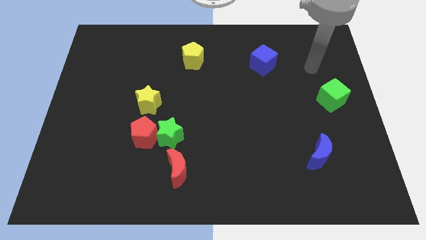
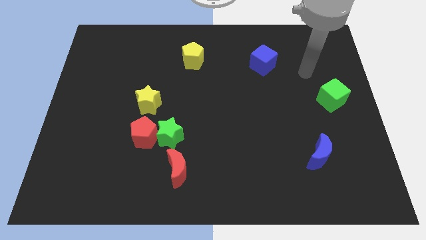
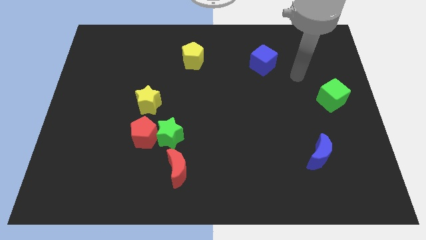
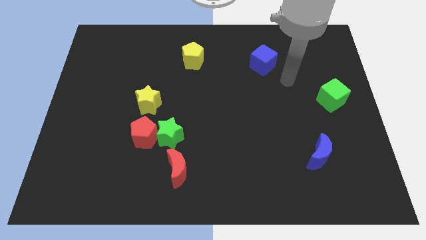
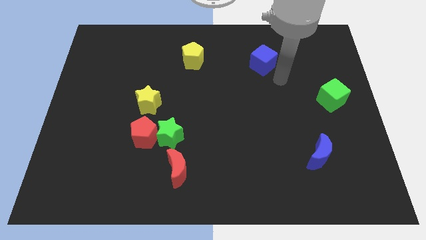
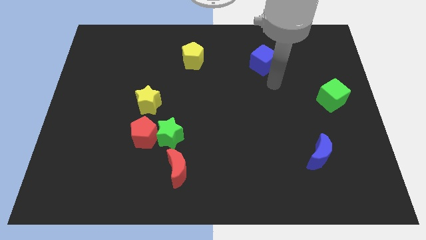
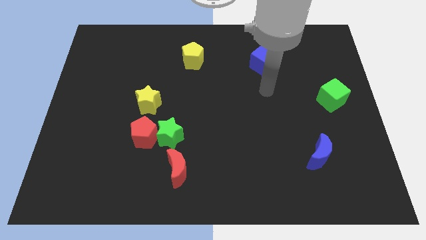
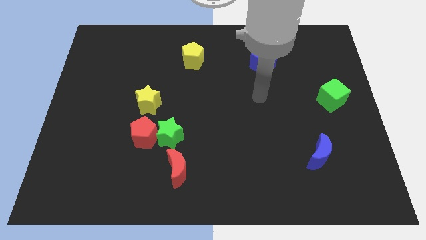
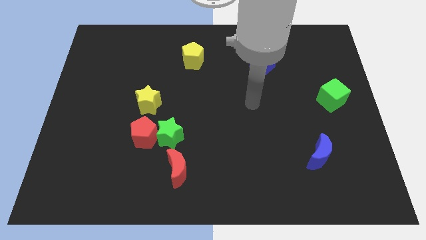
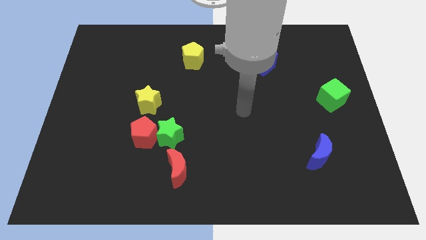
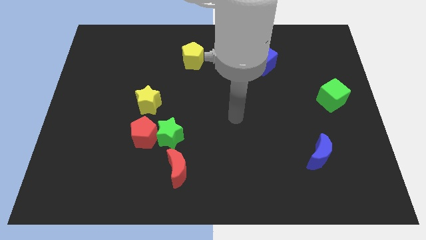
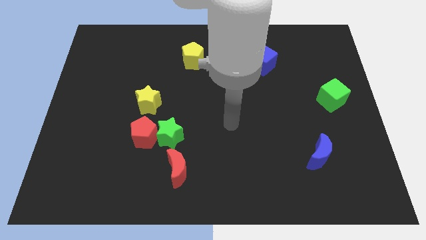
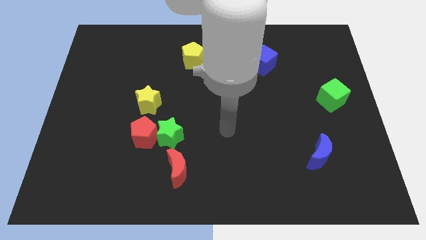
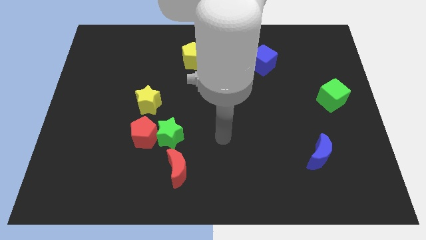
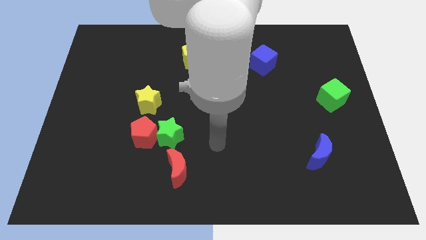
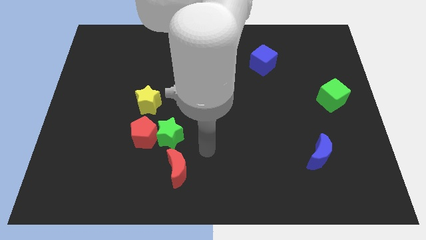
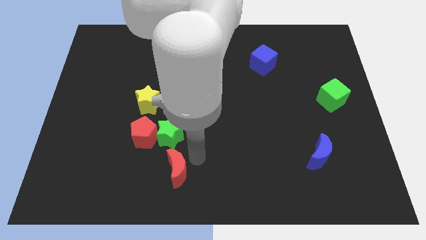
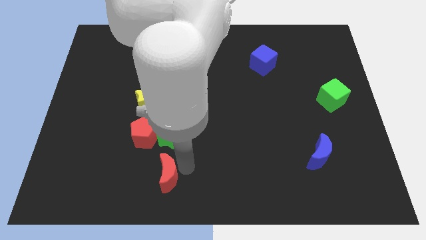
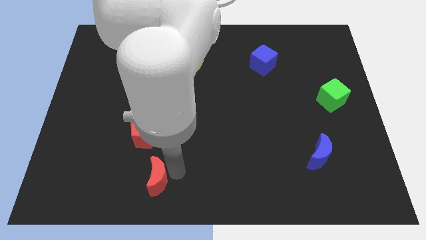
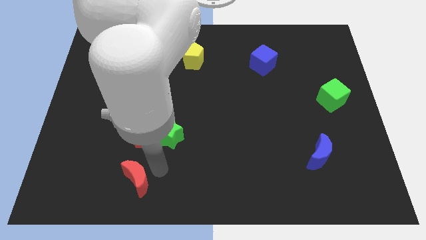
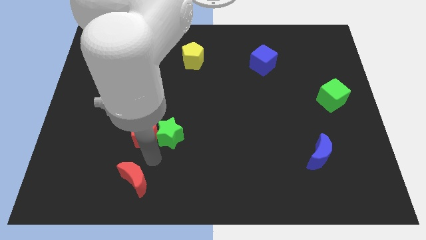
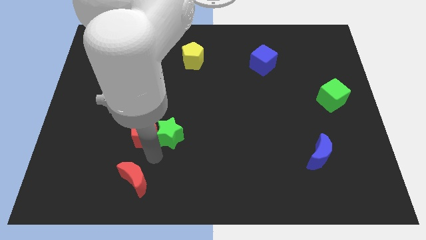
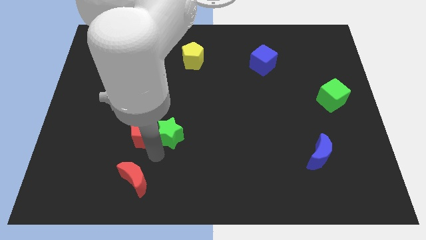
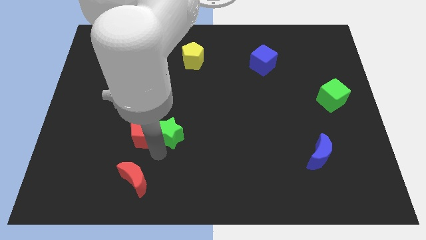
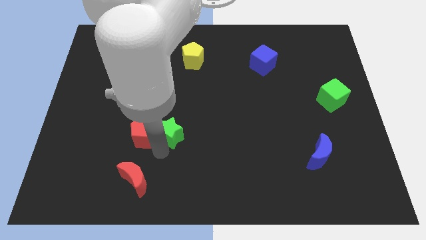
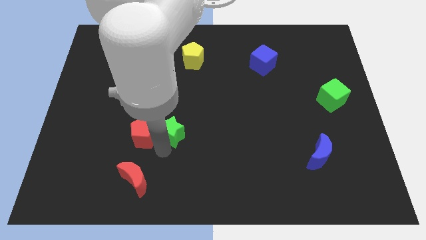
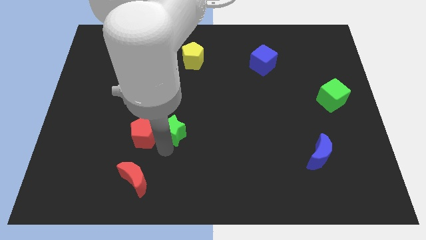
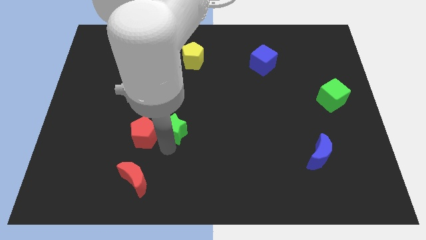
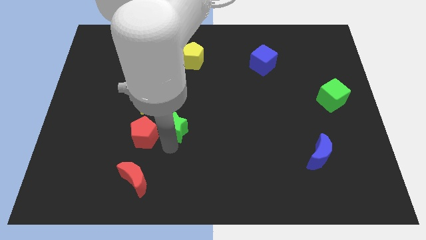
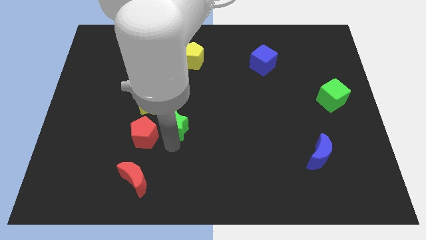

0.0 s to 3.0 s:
pull the green star apart from the red pentagon and red moon

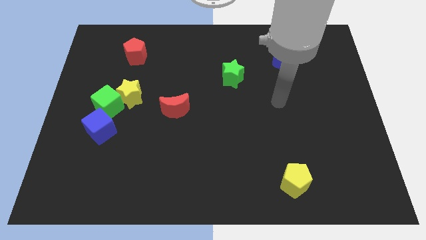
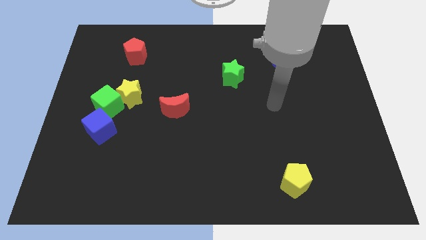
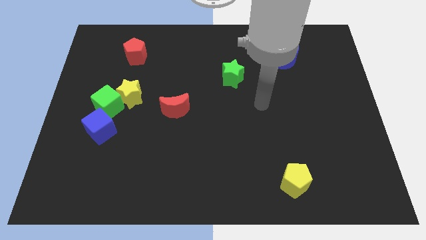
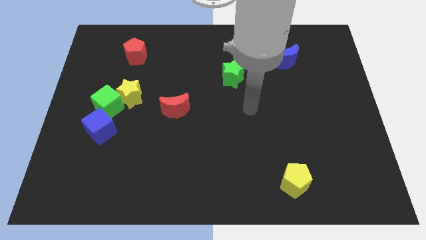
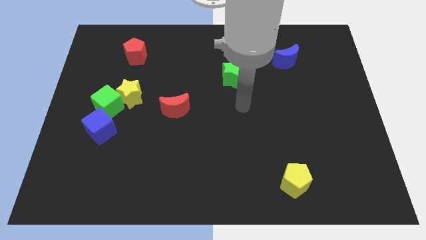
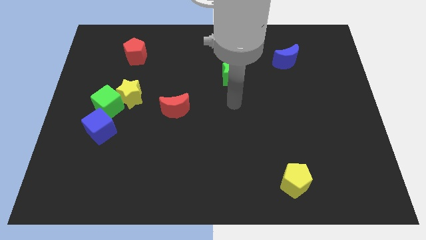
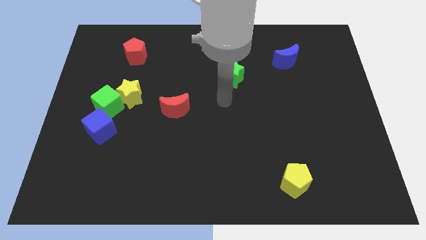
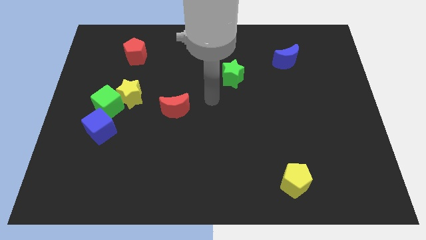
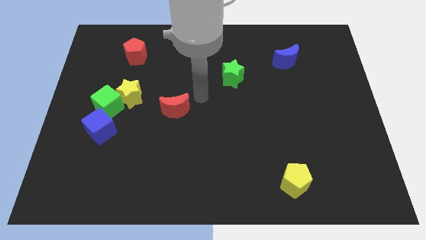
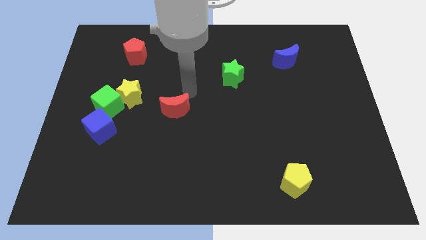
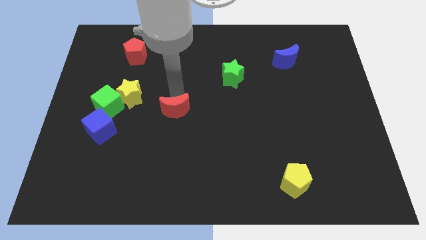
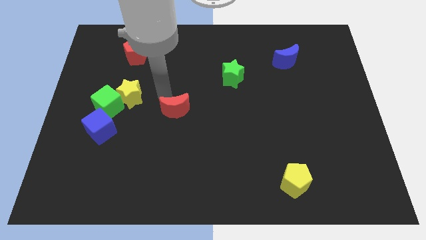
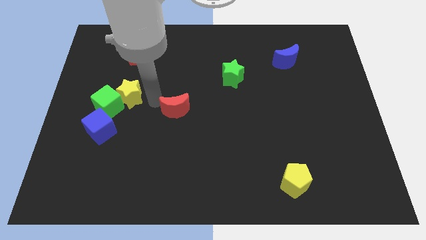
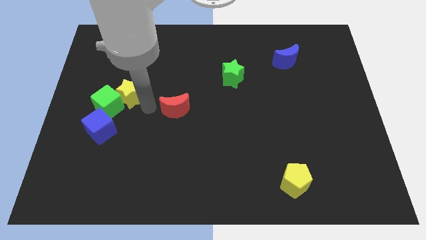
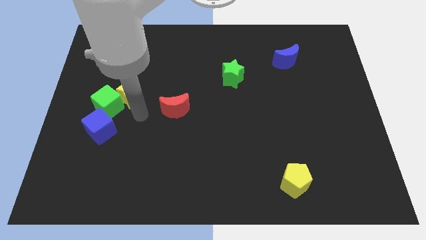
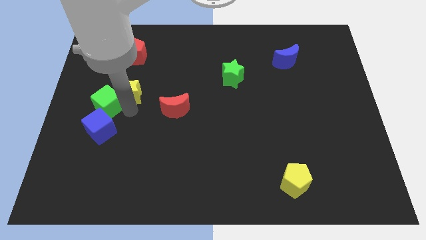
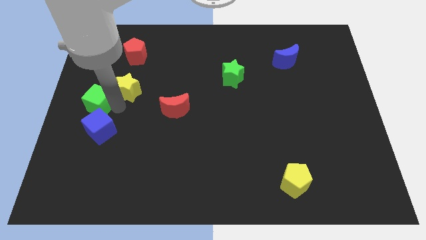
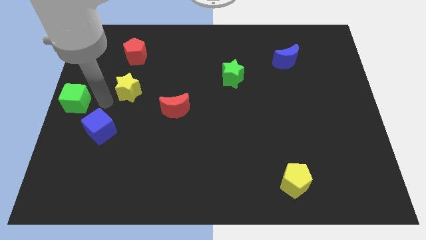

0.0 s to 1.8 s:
move the yellow star away from the green cube

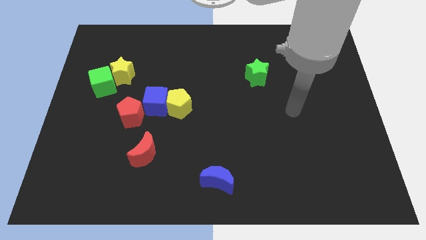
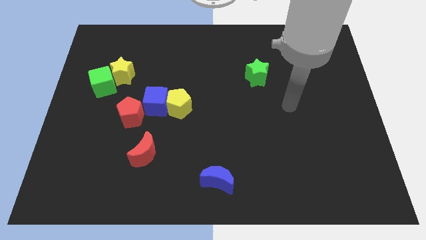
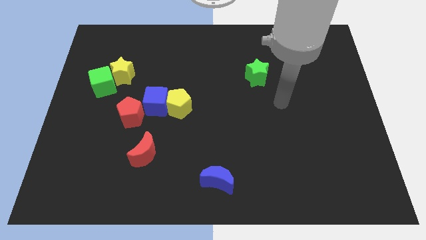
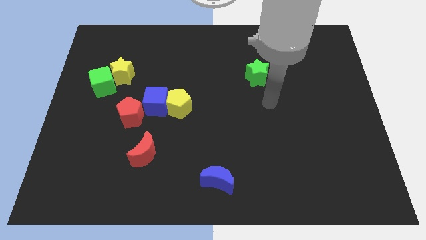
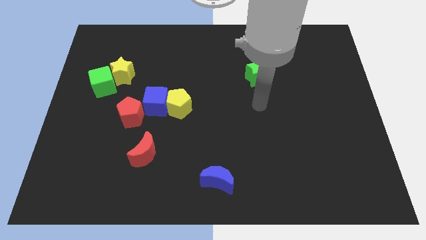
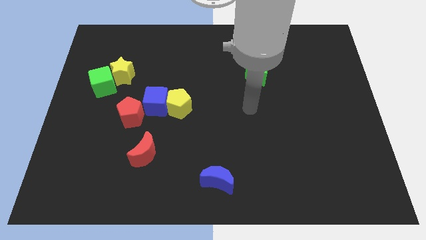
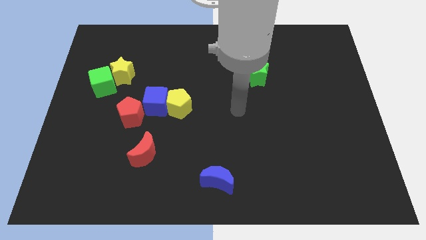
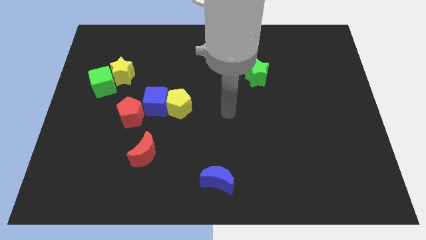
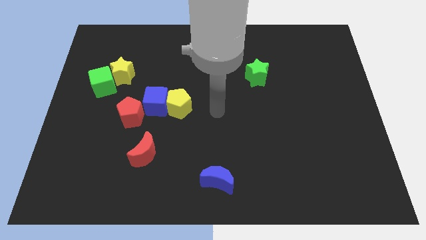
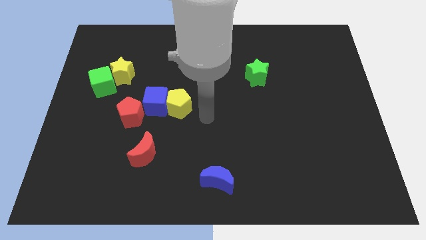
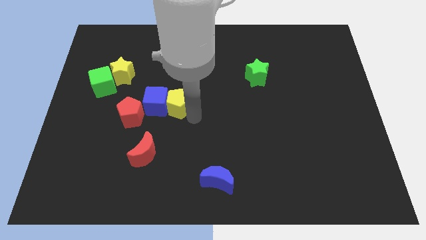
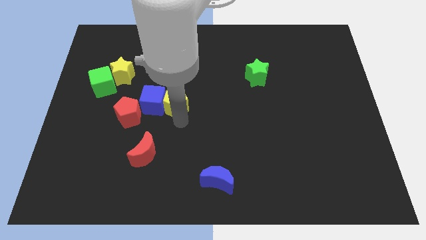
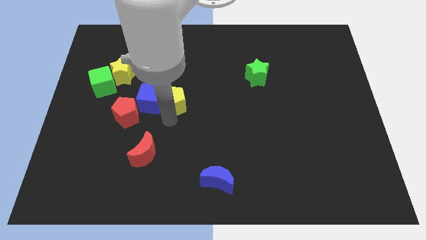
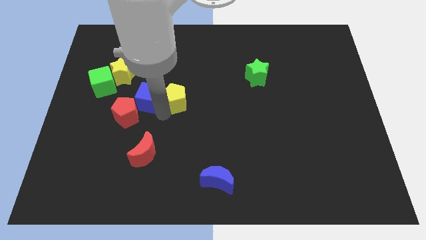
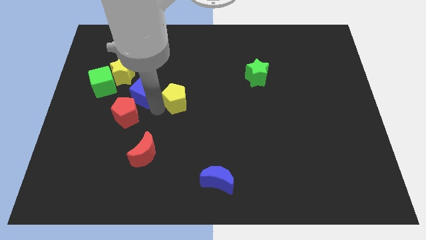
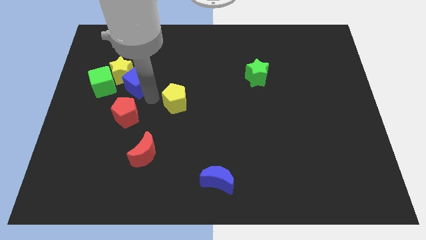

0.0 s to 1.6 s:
separate the yellow pentagon from the blue cube

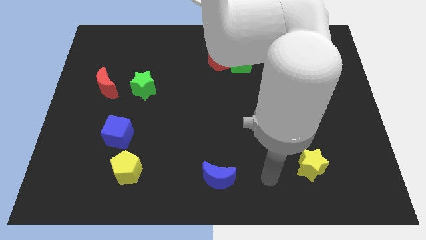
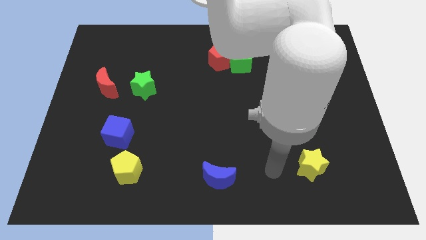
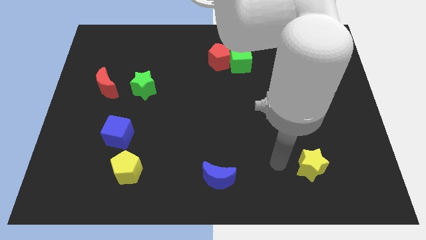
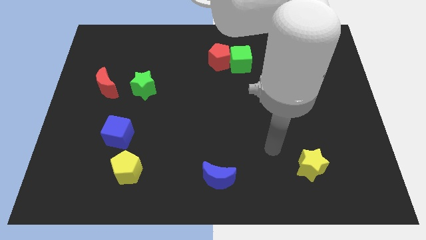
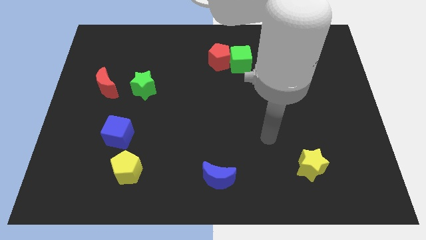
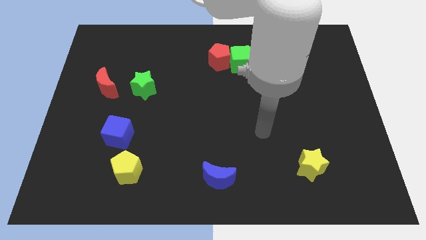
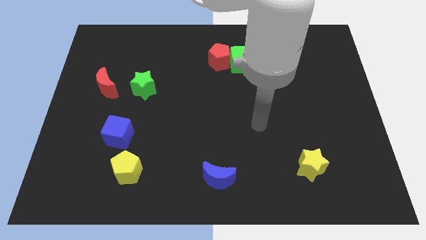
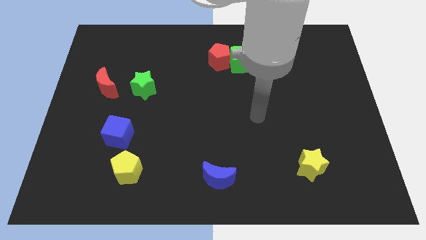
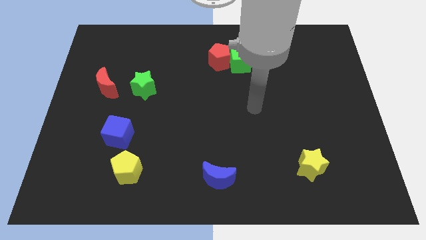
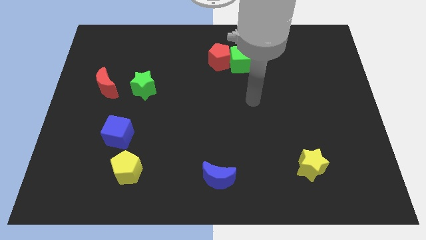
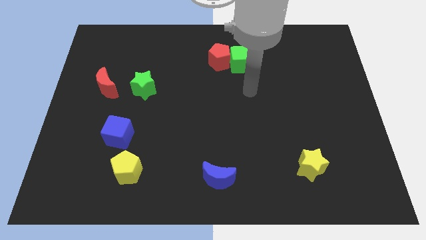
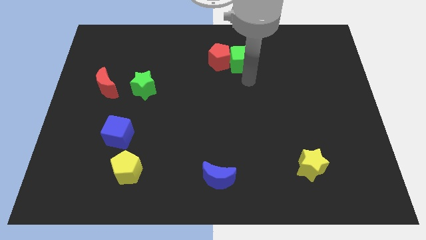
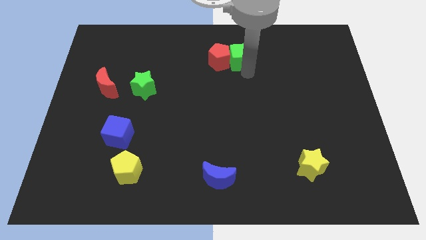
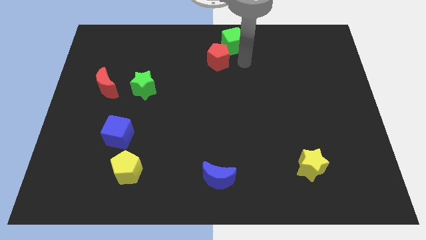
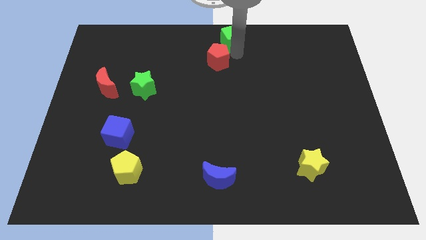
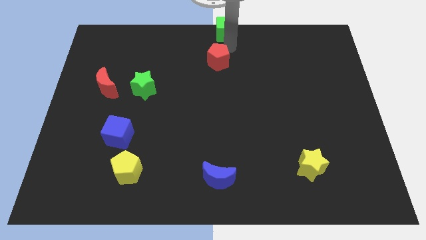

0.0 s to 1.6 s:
separate the red pentagon from the green cube

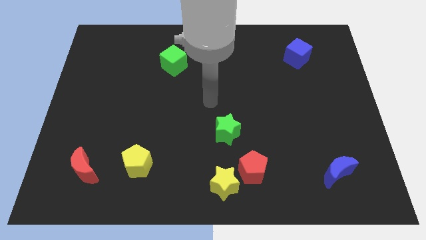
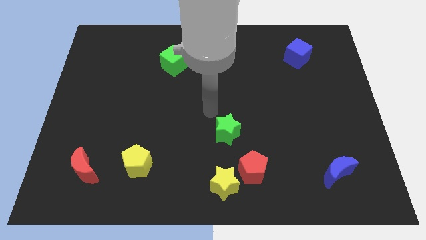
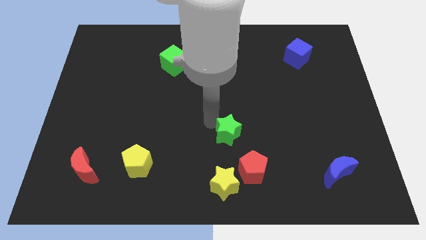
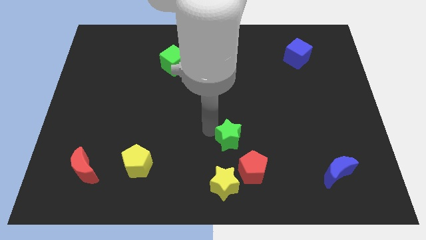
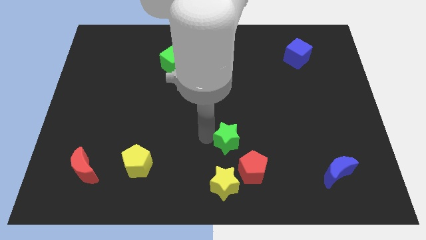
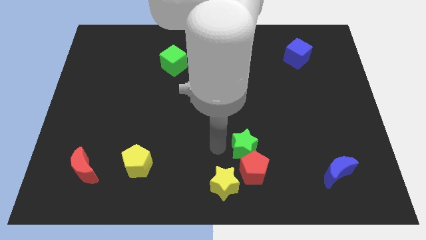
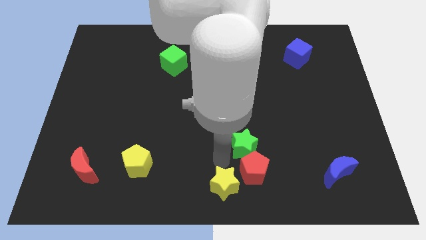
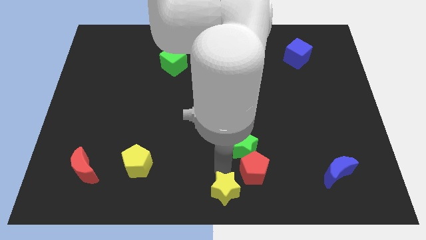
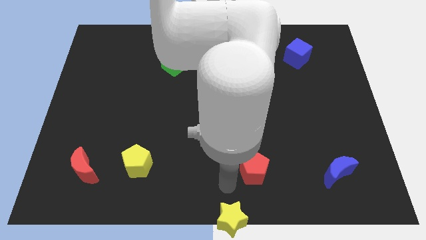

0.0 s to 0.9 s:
move the red pentagon away from the yellow star

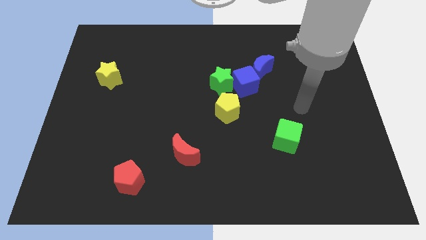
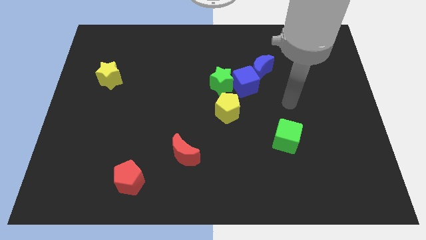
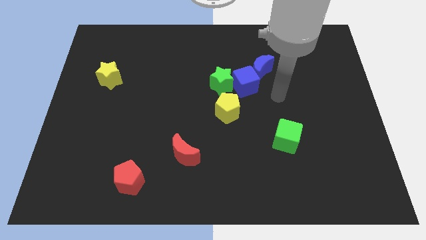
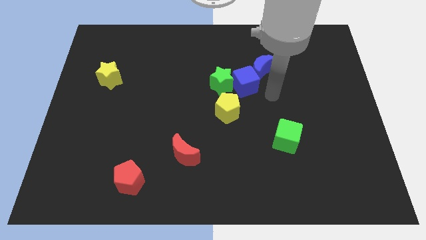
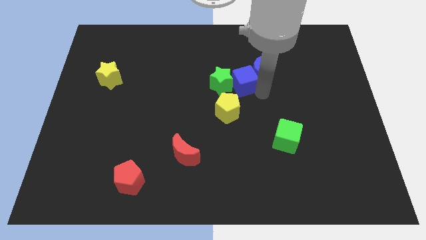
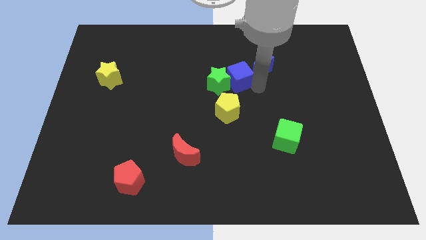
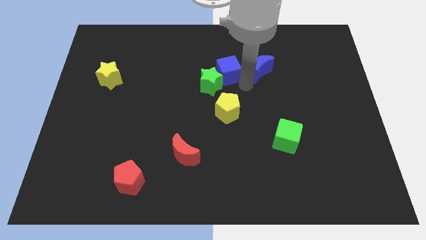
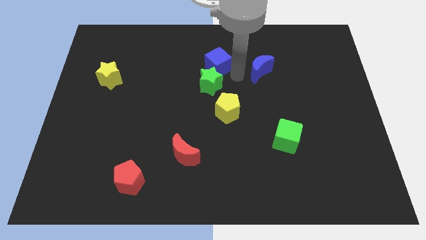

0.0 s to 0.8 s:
separate the blue moon from the blue cube
